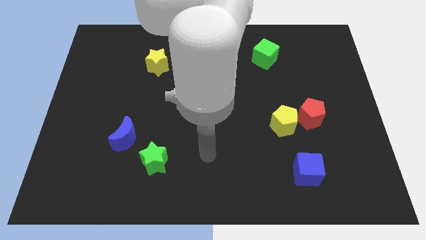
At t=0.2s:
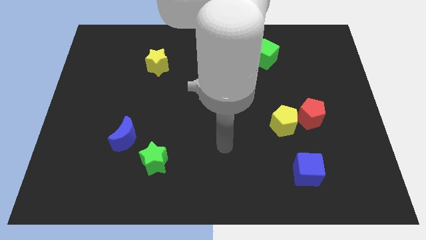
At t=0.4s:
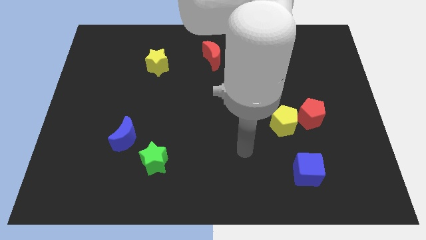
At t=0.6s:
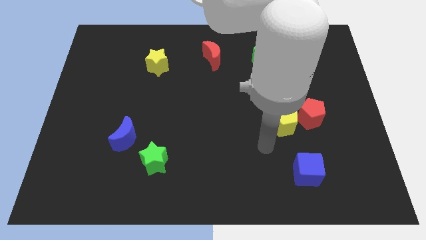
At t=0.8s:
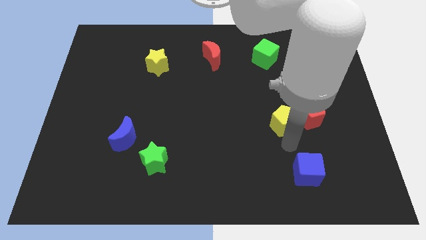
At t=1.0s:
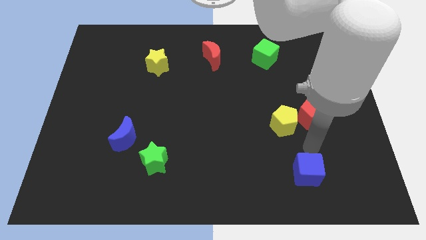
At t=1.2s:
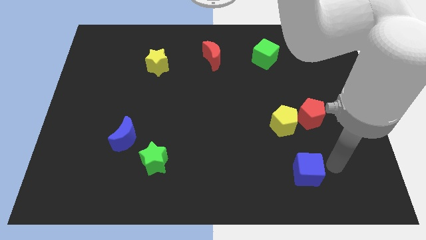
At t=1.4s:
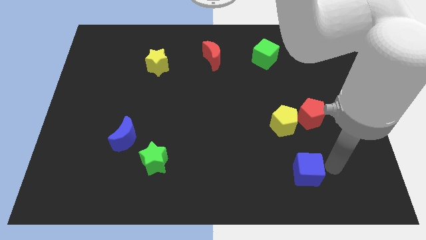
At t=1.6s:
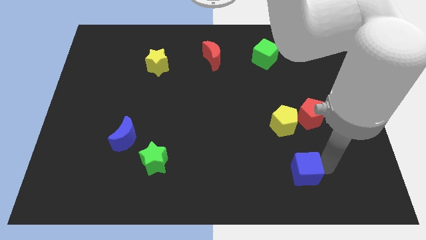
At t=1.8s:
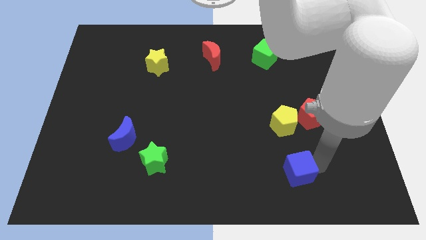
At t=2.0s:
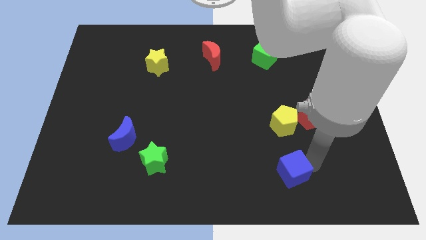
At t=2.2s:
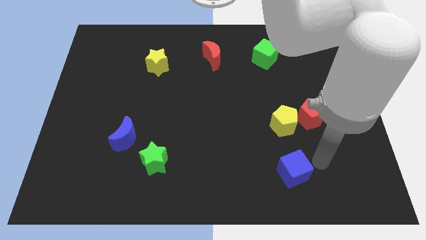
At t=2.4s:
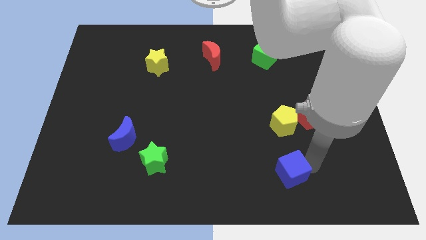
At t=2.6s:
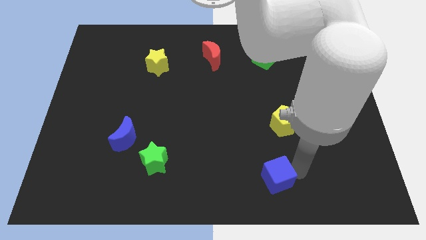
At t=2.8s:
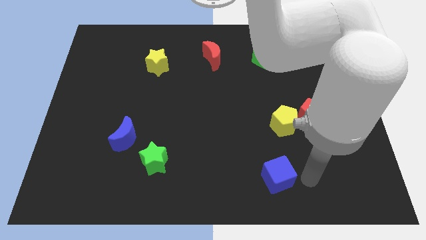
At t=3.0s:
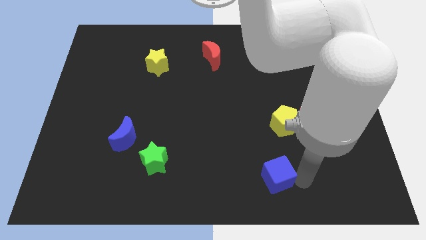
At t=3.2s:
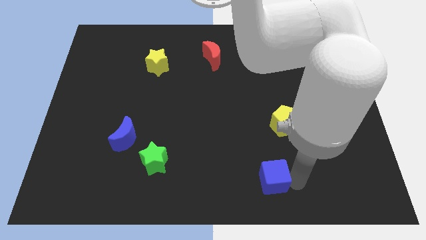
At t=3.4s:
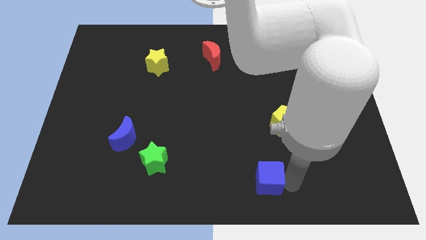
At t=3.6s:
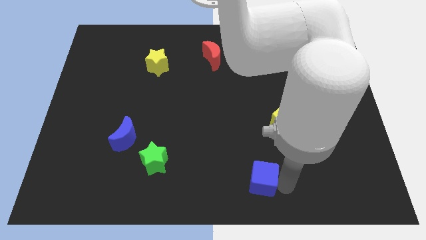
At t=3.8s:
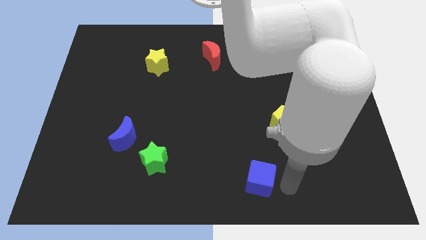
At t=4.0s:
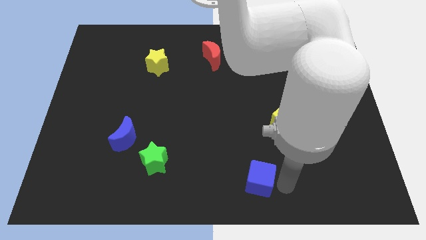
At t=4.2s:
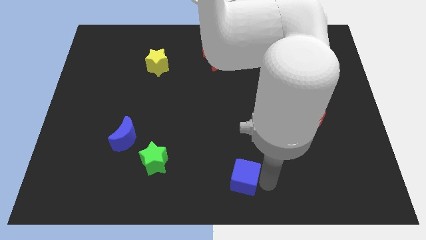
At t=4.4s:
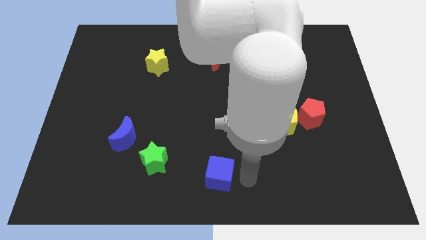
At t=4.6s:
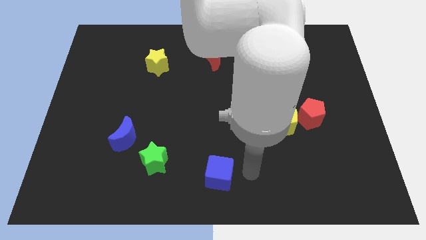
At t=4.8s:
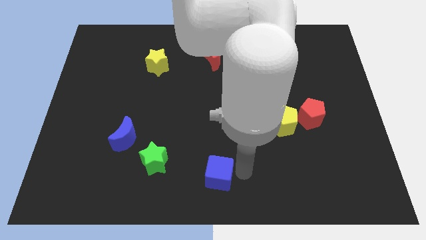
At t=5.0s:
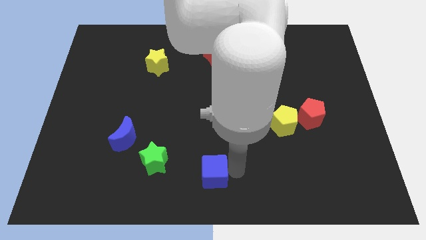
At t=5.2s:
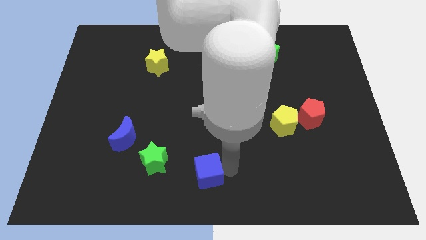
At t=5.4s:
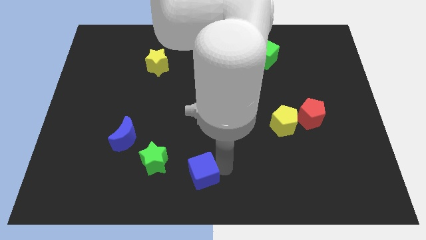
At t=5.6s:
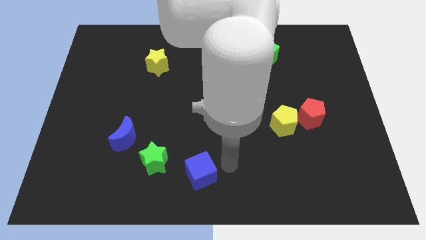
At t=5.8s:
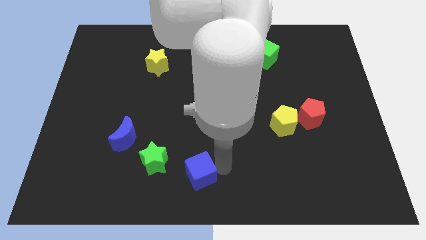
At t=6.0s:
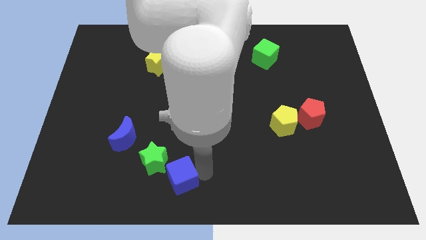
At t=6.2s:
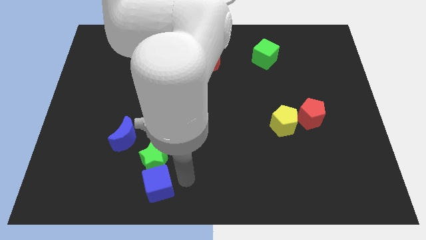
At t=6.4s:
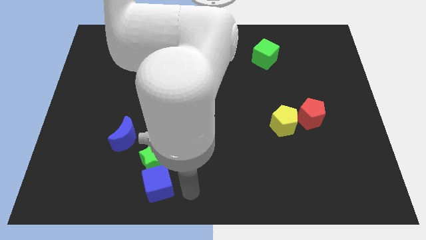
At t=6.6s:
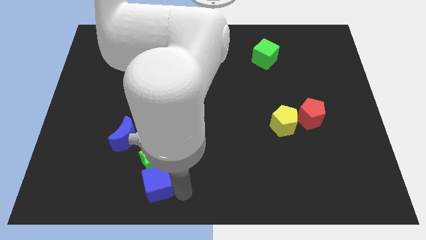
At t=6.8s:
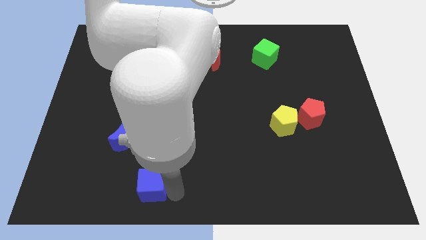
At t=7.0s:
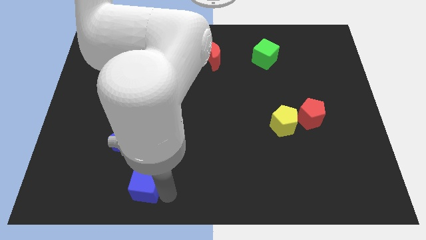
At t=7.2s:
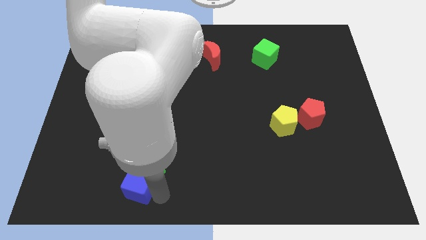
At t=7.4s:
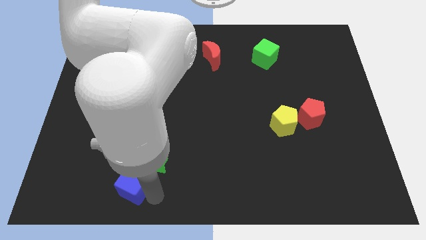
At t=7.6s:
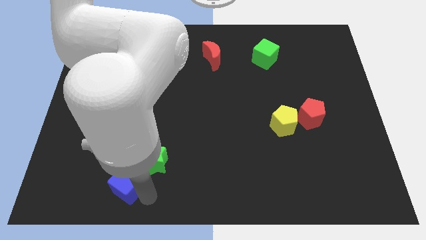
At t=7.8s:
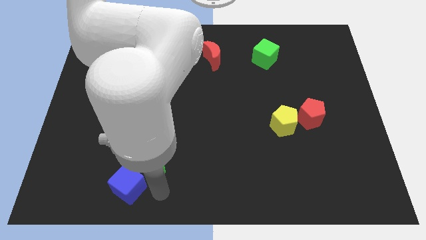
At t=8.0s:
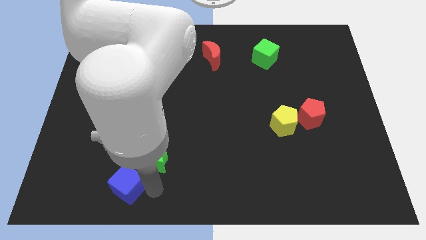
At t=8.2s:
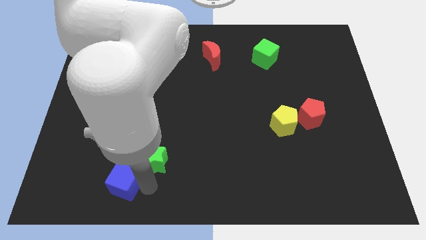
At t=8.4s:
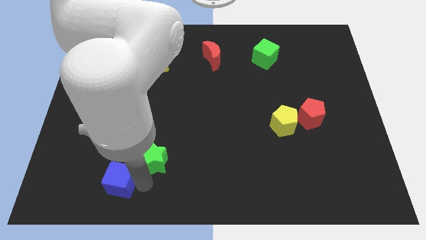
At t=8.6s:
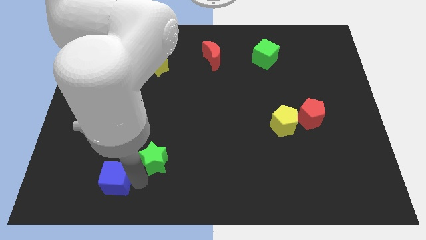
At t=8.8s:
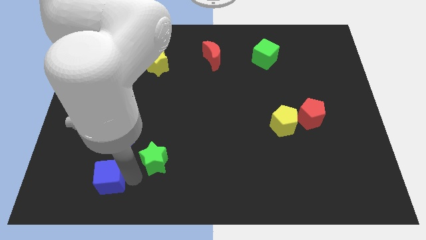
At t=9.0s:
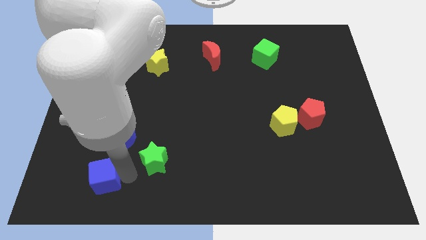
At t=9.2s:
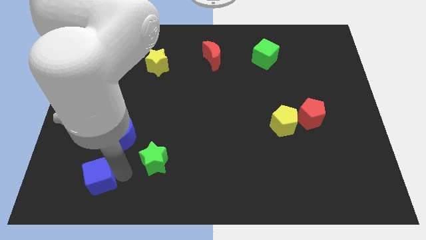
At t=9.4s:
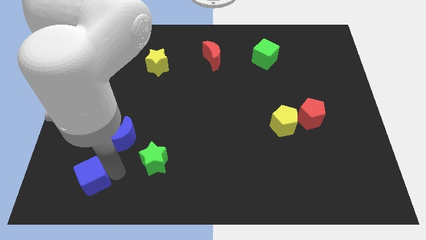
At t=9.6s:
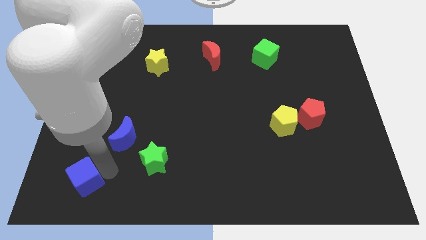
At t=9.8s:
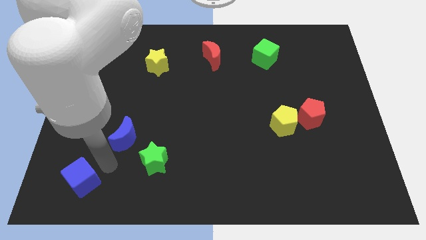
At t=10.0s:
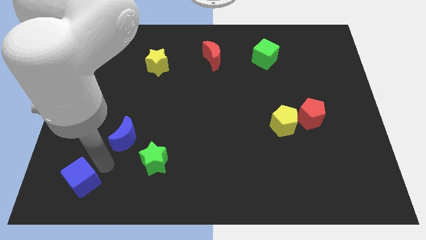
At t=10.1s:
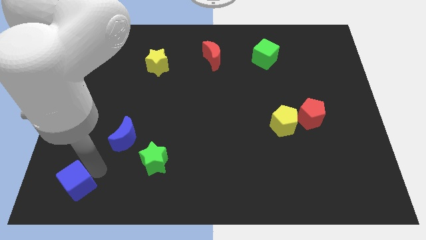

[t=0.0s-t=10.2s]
put the blue cube to the bottom left of the board

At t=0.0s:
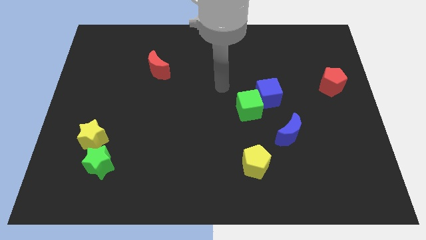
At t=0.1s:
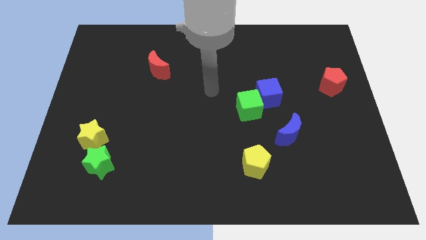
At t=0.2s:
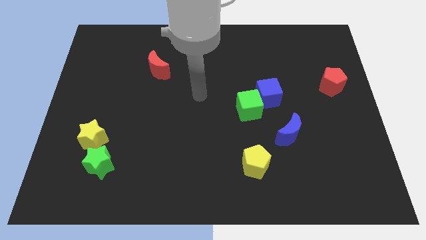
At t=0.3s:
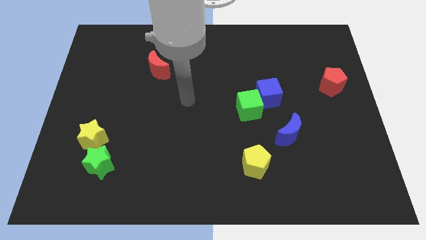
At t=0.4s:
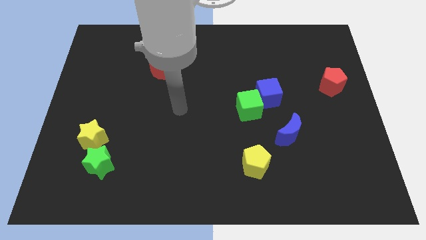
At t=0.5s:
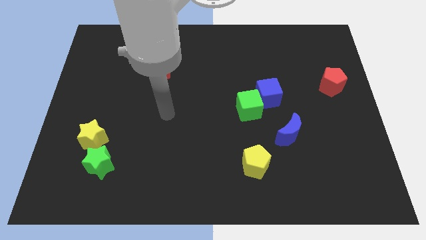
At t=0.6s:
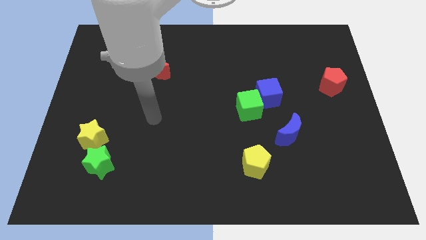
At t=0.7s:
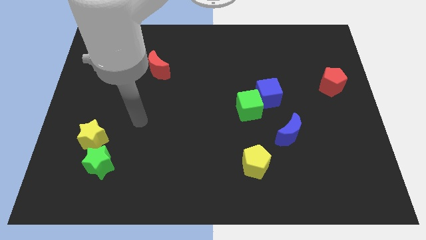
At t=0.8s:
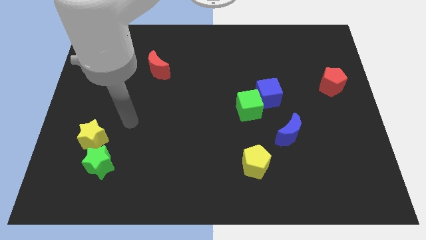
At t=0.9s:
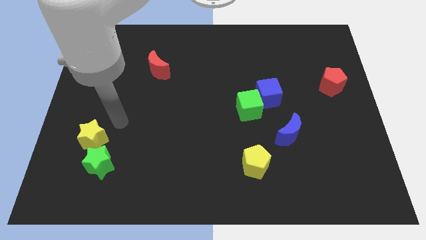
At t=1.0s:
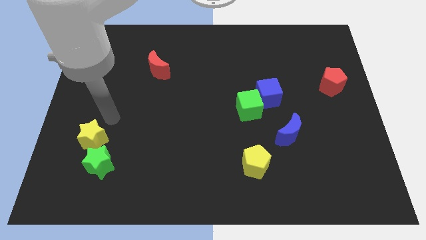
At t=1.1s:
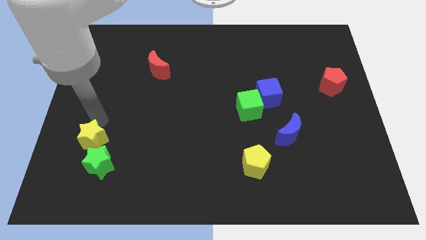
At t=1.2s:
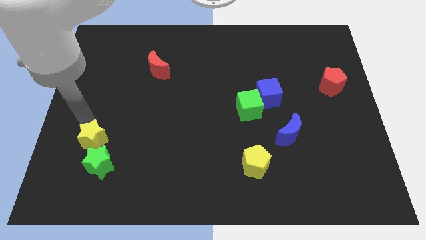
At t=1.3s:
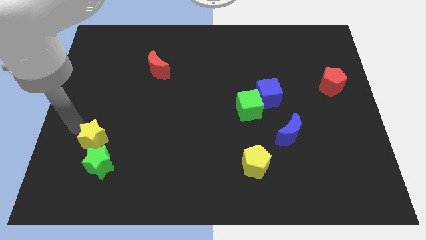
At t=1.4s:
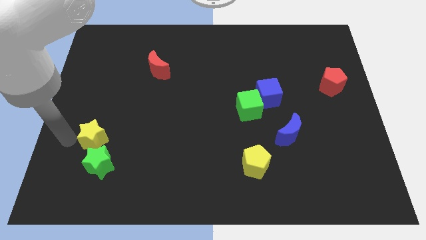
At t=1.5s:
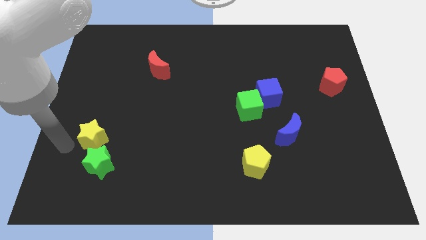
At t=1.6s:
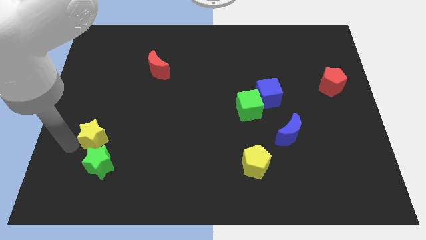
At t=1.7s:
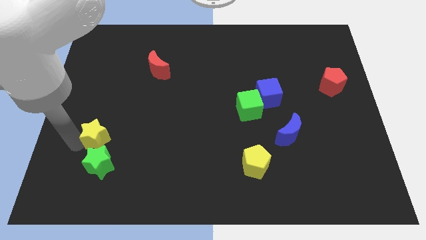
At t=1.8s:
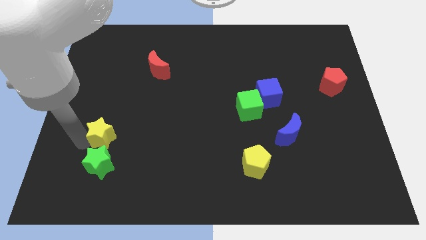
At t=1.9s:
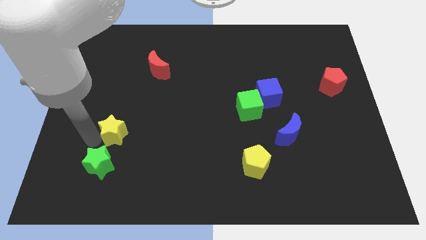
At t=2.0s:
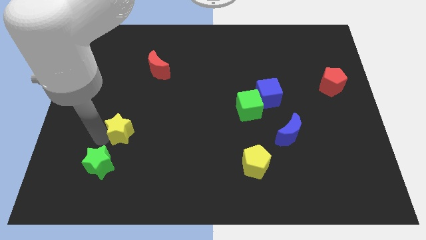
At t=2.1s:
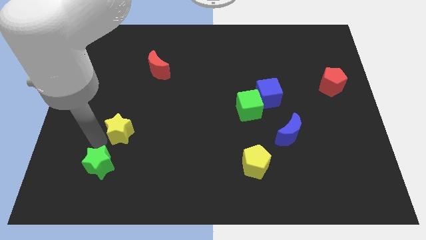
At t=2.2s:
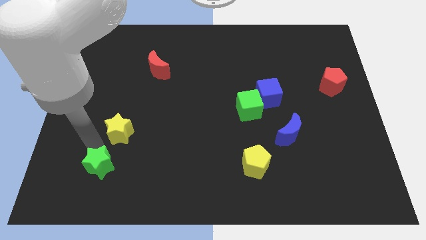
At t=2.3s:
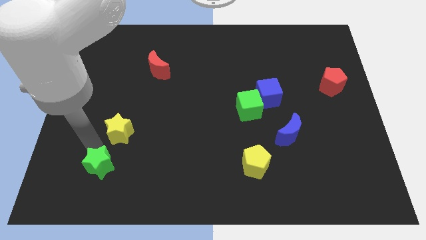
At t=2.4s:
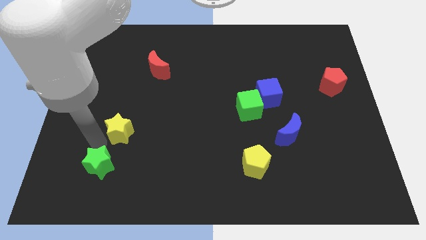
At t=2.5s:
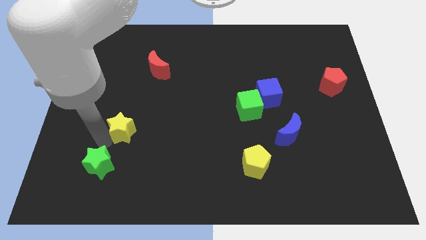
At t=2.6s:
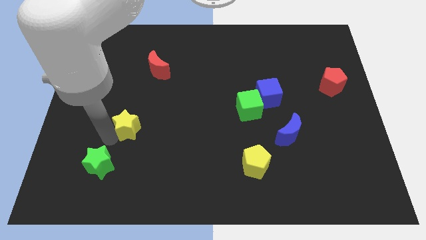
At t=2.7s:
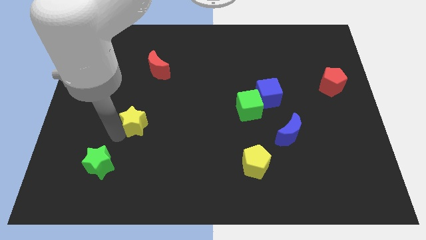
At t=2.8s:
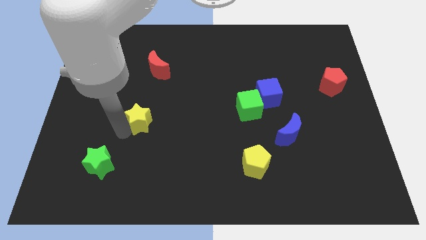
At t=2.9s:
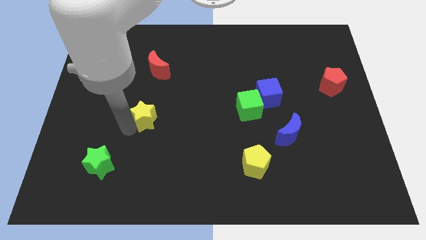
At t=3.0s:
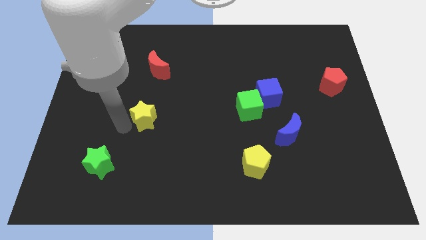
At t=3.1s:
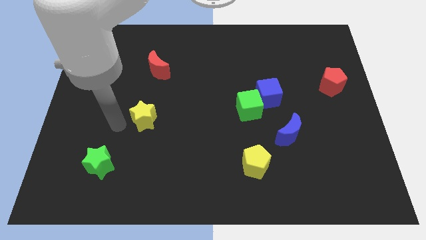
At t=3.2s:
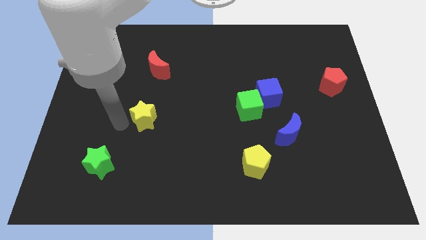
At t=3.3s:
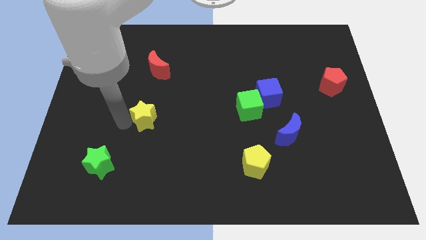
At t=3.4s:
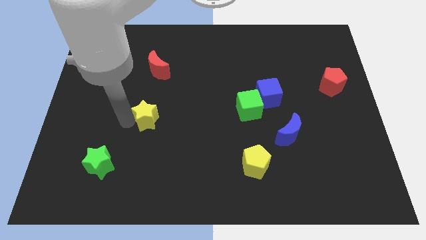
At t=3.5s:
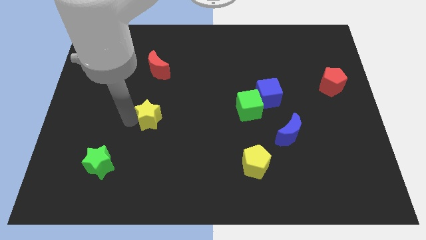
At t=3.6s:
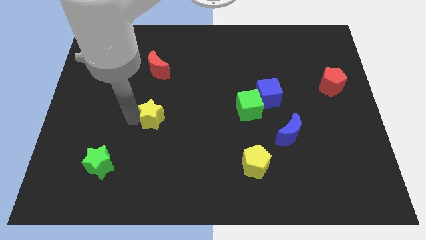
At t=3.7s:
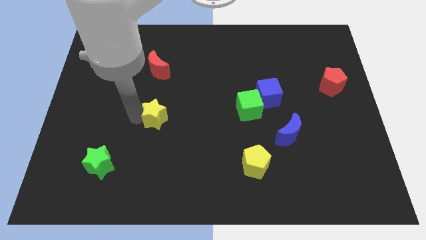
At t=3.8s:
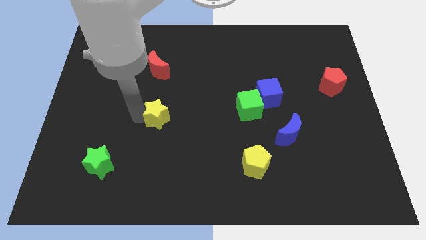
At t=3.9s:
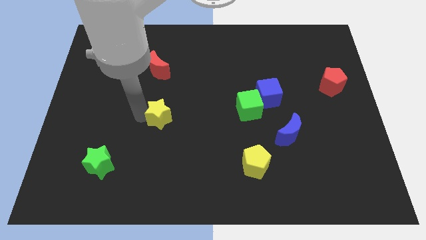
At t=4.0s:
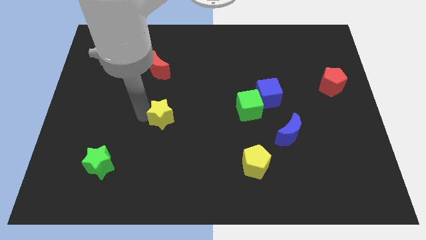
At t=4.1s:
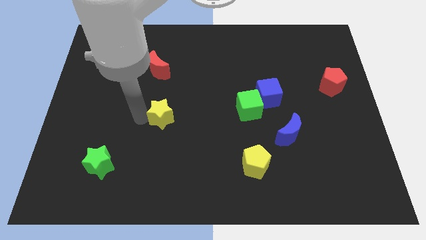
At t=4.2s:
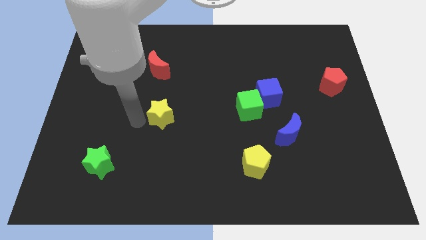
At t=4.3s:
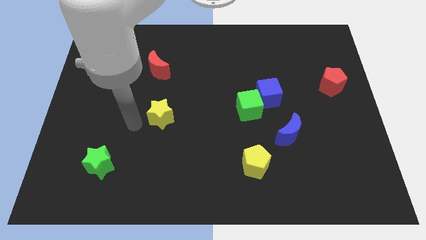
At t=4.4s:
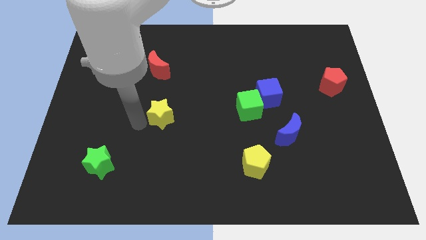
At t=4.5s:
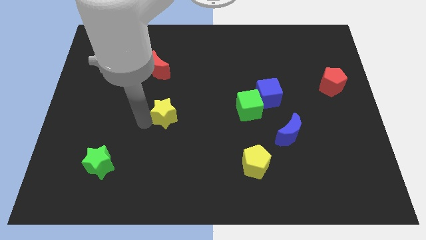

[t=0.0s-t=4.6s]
move the yellow star to the middle
